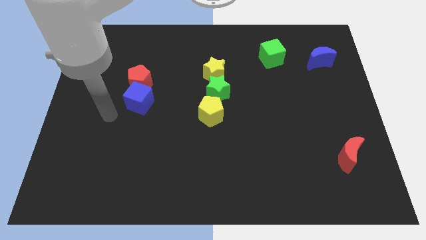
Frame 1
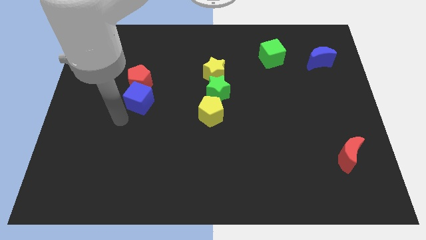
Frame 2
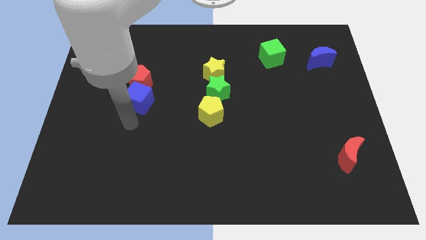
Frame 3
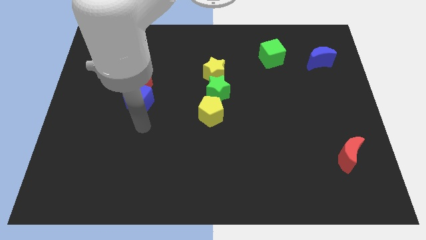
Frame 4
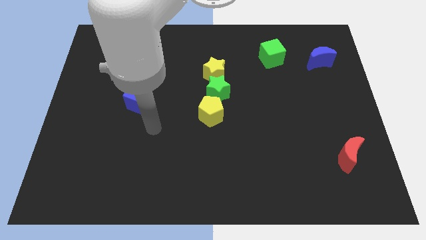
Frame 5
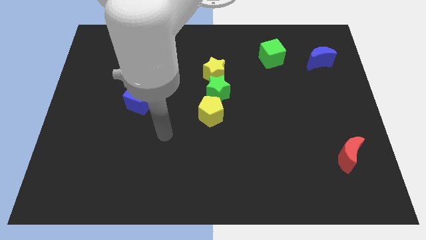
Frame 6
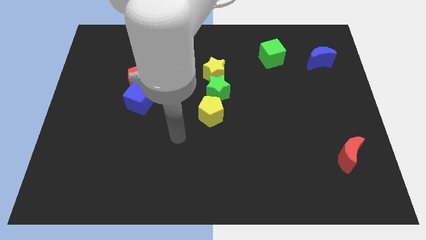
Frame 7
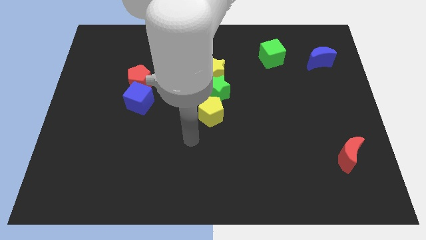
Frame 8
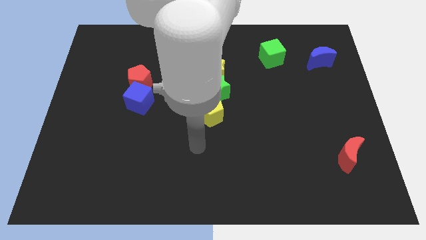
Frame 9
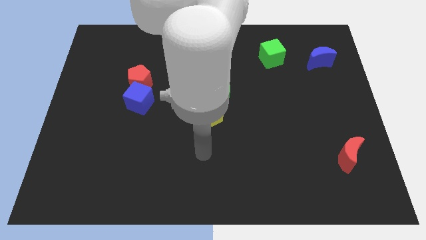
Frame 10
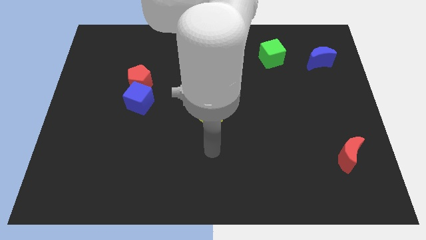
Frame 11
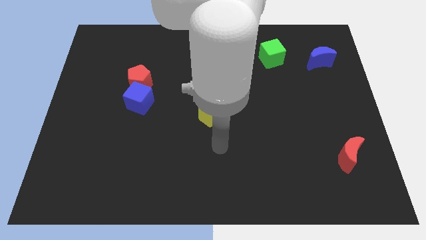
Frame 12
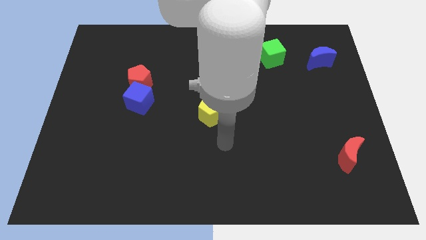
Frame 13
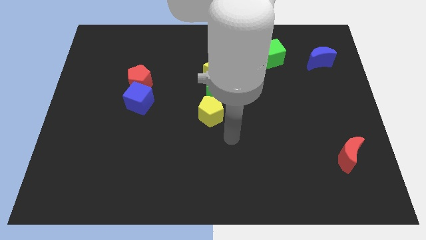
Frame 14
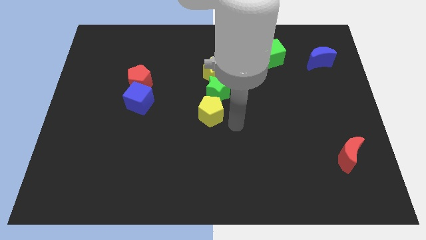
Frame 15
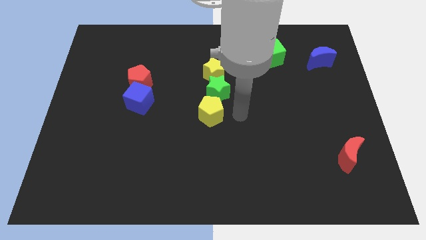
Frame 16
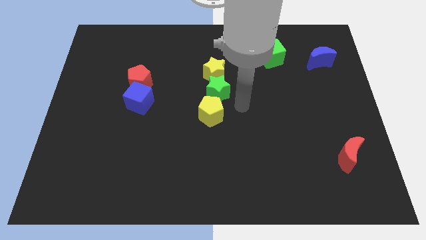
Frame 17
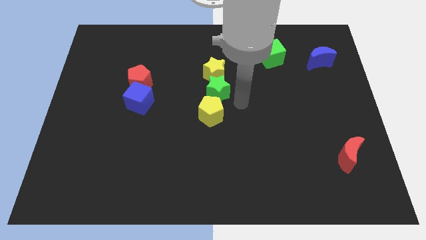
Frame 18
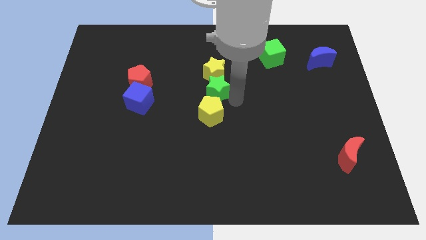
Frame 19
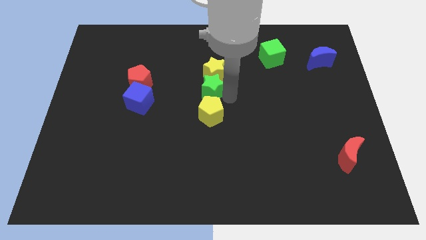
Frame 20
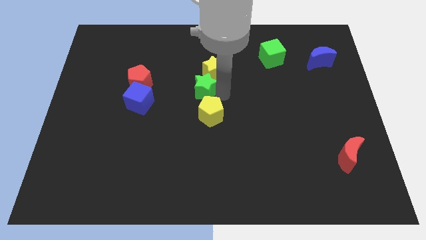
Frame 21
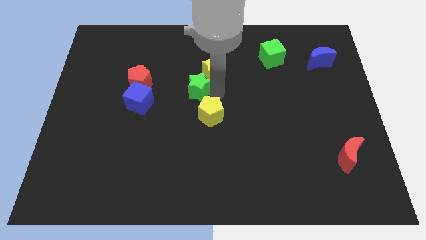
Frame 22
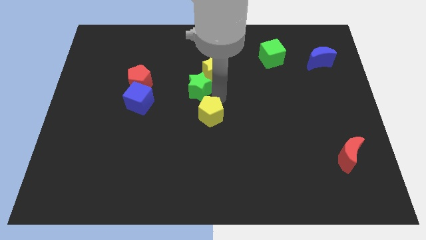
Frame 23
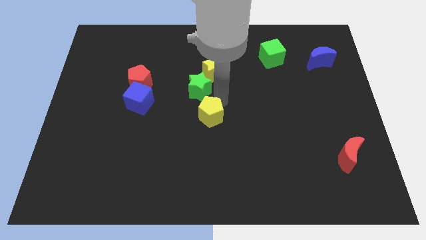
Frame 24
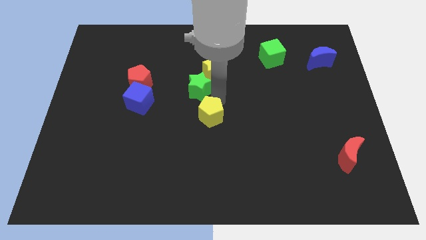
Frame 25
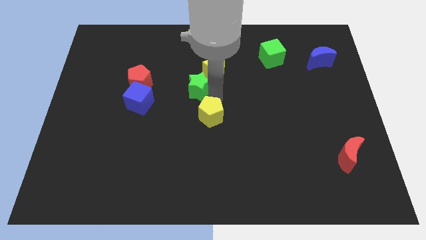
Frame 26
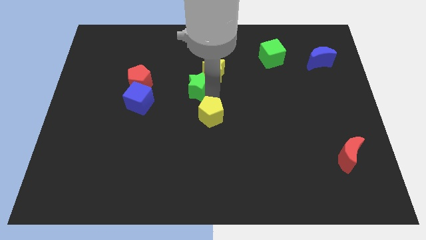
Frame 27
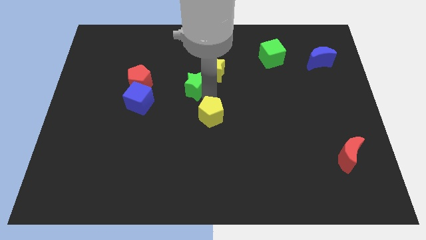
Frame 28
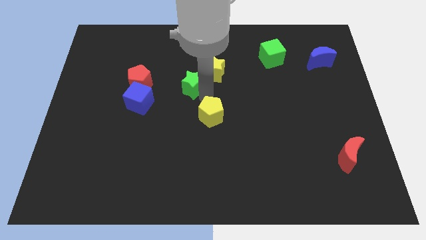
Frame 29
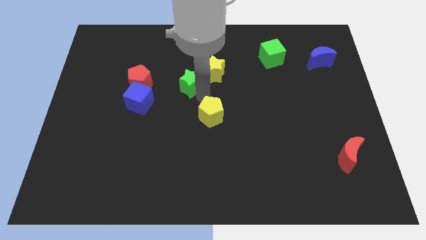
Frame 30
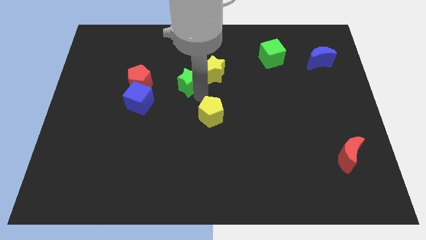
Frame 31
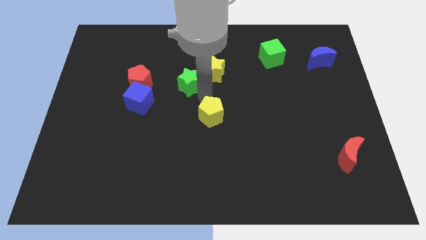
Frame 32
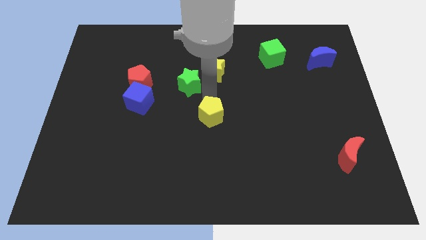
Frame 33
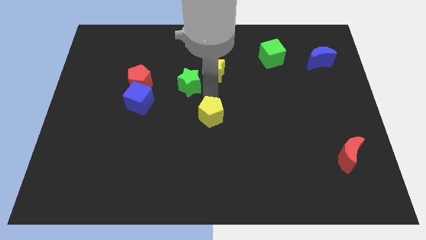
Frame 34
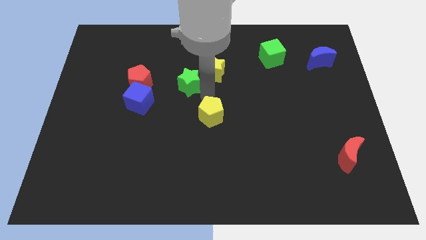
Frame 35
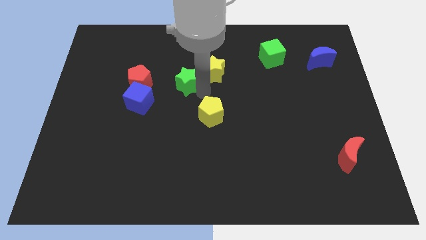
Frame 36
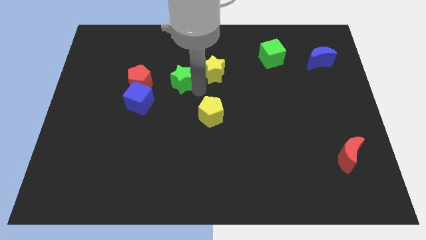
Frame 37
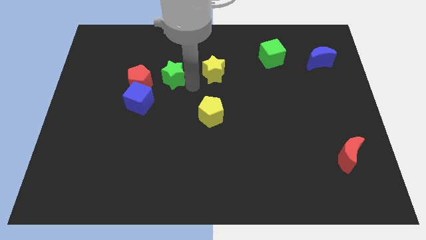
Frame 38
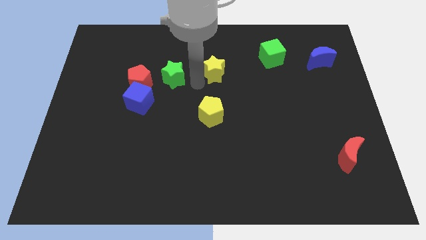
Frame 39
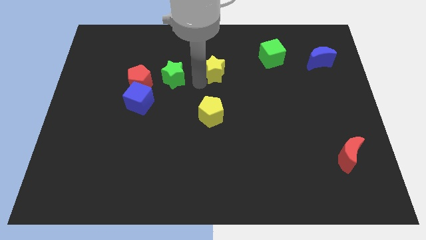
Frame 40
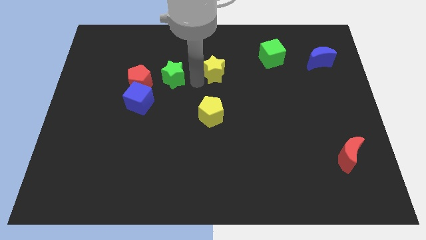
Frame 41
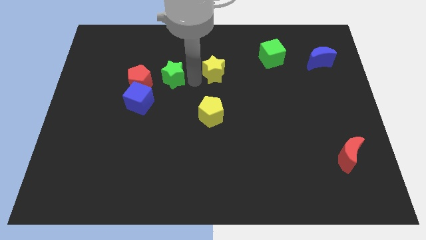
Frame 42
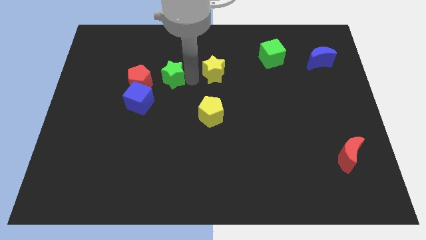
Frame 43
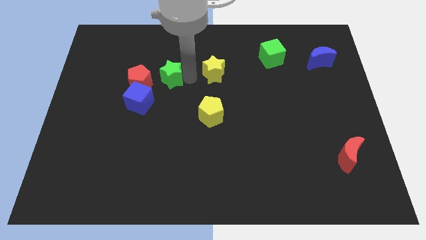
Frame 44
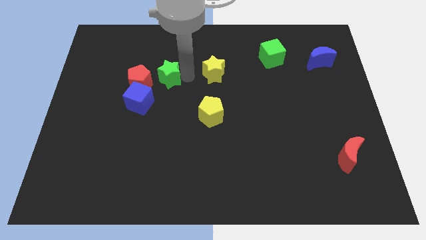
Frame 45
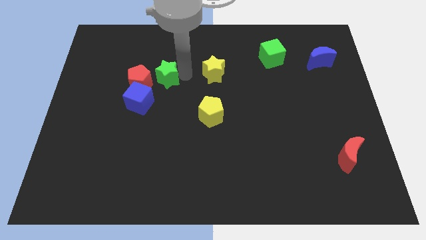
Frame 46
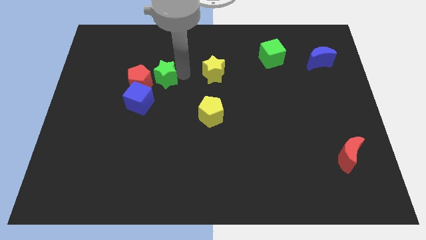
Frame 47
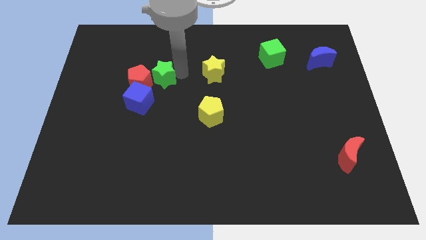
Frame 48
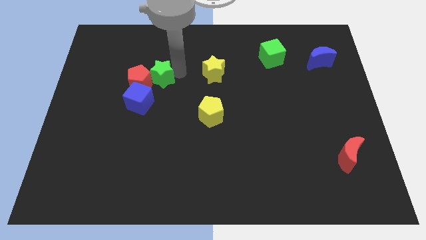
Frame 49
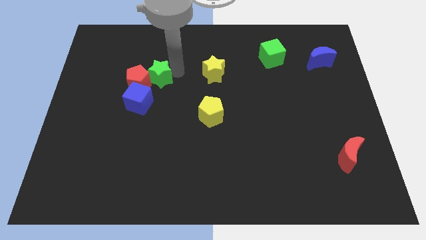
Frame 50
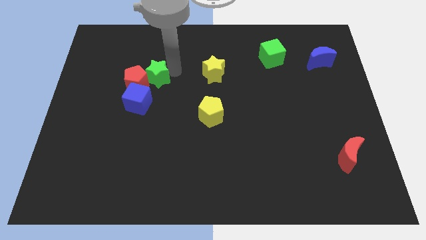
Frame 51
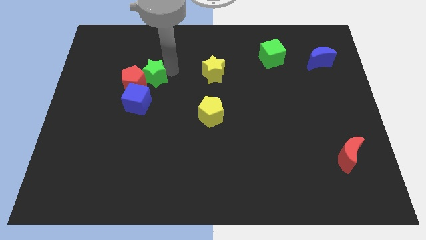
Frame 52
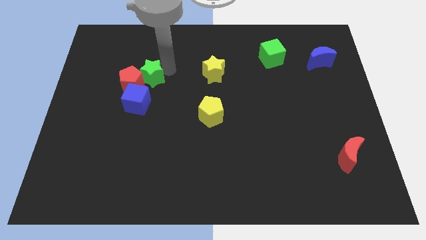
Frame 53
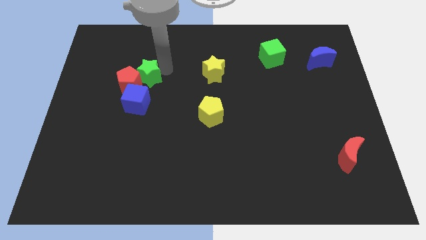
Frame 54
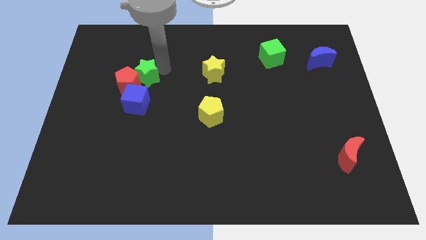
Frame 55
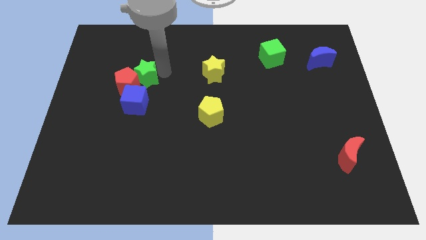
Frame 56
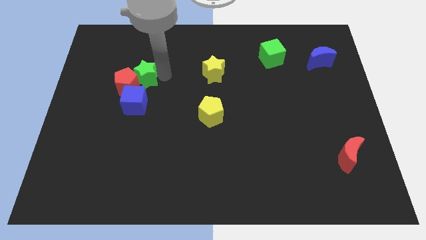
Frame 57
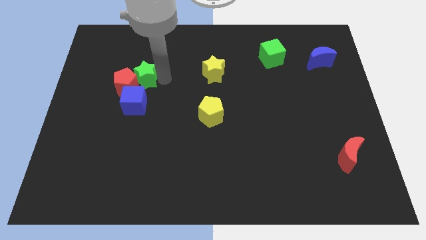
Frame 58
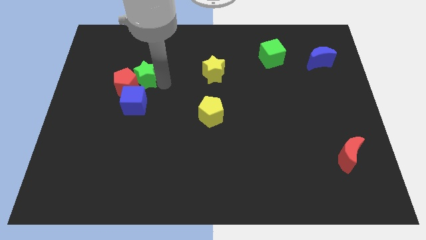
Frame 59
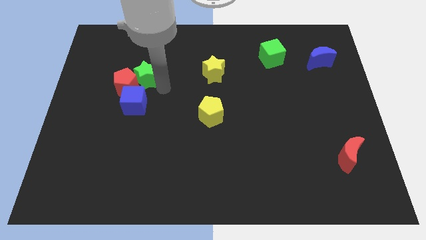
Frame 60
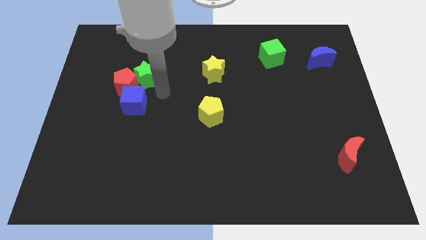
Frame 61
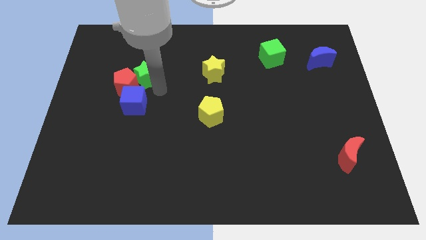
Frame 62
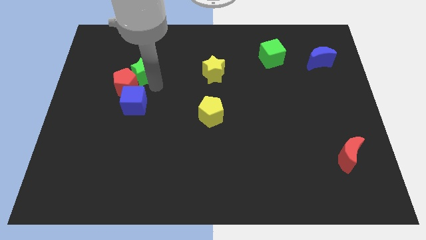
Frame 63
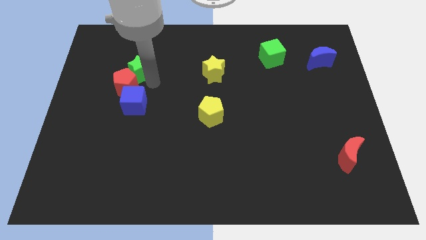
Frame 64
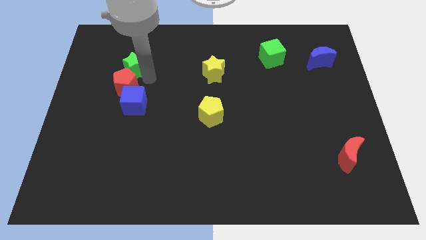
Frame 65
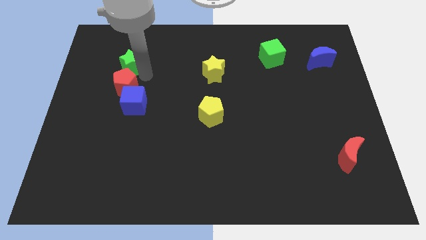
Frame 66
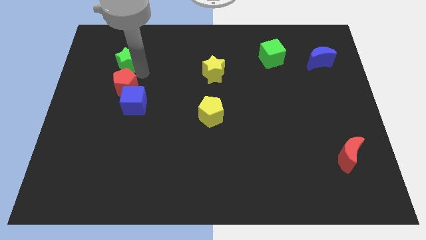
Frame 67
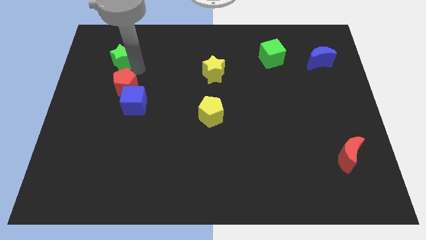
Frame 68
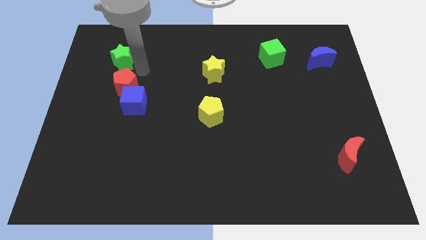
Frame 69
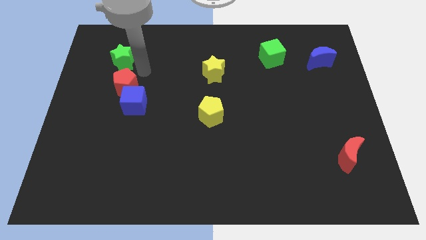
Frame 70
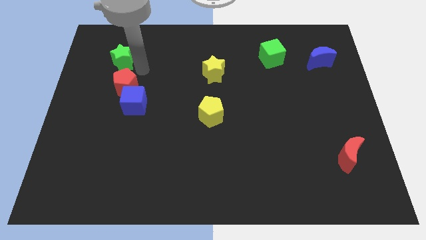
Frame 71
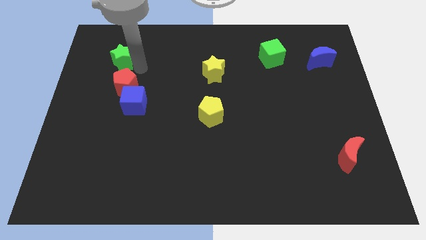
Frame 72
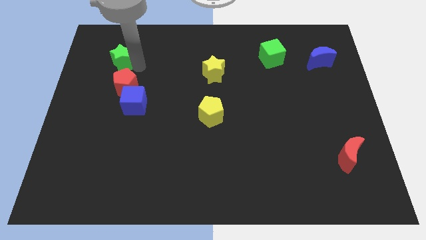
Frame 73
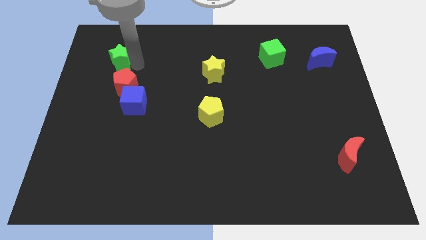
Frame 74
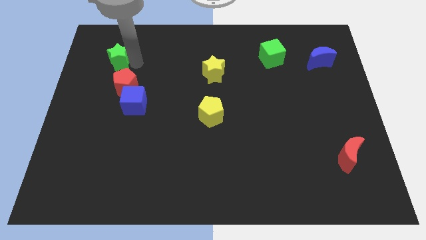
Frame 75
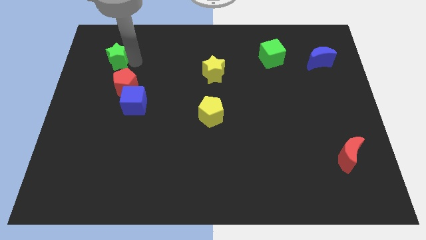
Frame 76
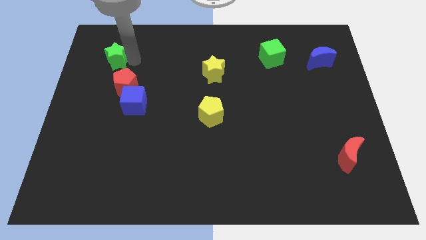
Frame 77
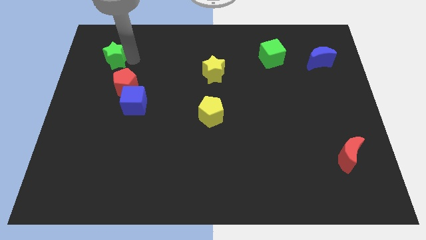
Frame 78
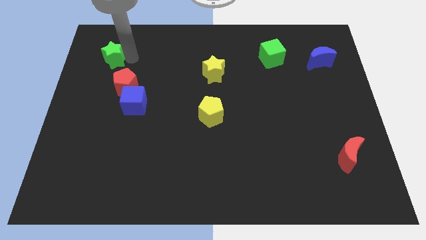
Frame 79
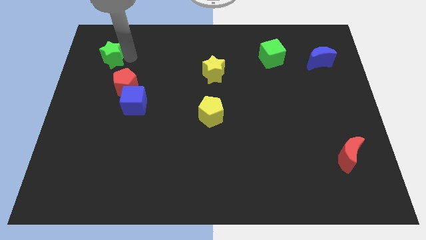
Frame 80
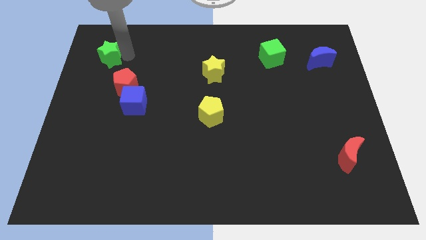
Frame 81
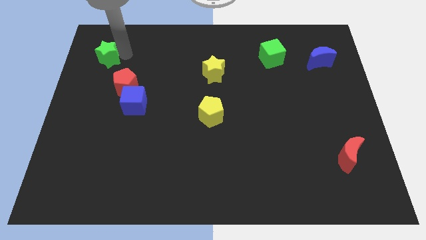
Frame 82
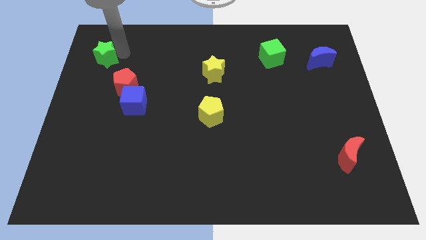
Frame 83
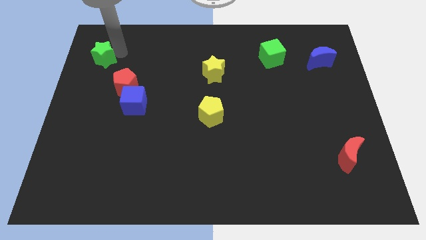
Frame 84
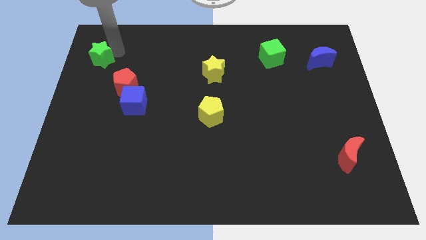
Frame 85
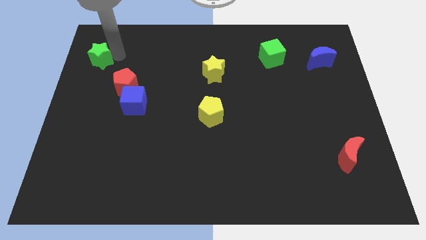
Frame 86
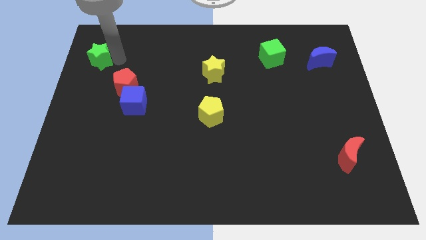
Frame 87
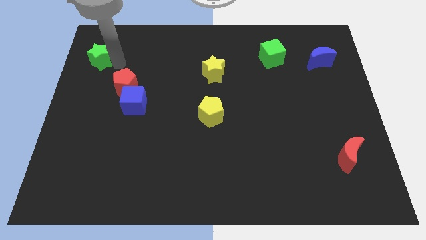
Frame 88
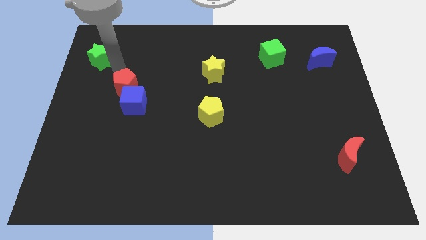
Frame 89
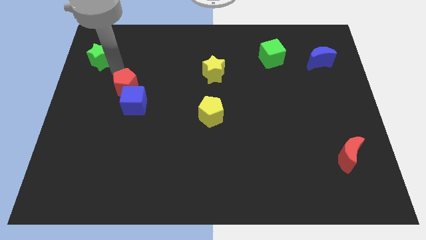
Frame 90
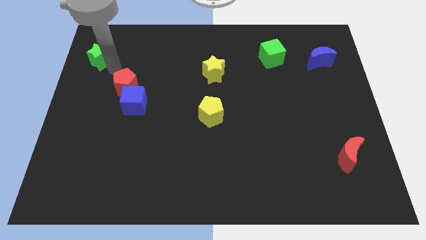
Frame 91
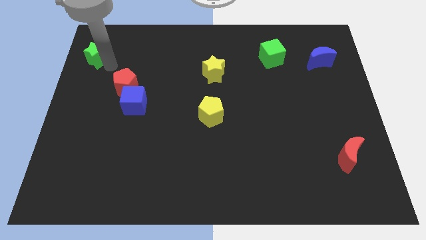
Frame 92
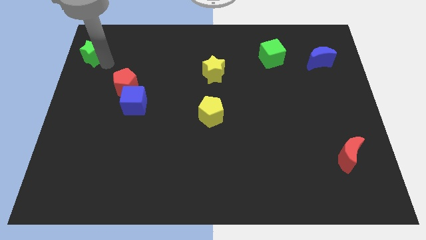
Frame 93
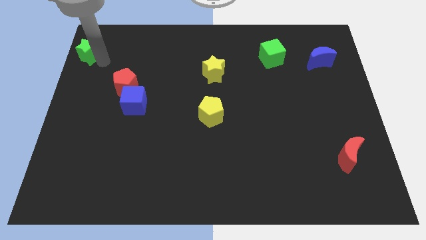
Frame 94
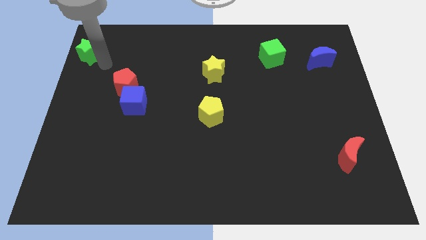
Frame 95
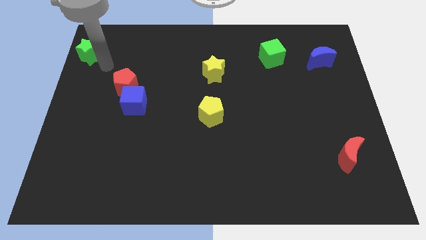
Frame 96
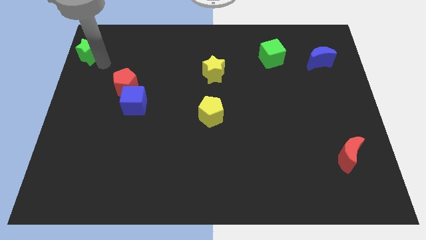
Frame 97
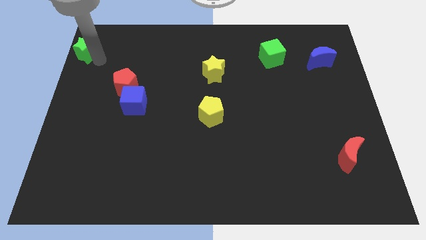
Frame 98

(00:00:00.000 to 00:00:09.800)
put the green star to the upper left corner
